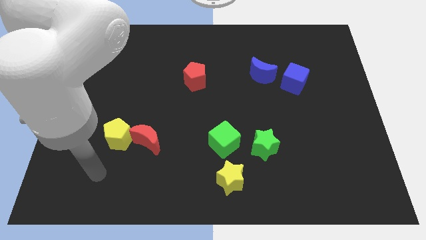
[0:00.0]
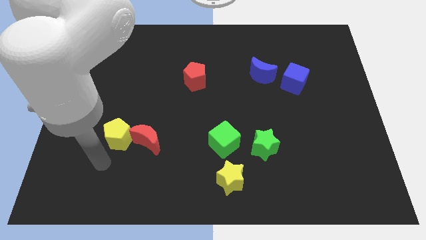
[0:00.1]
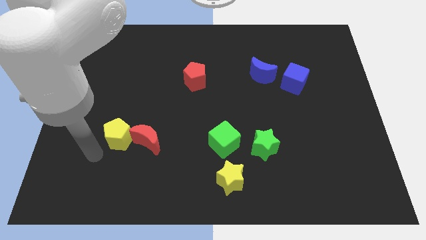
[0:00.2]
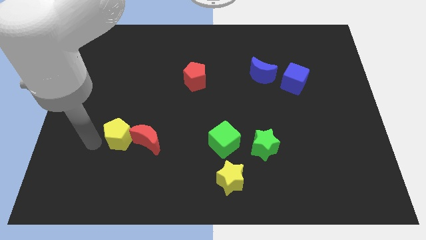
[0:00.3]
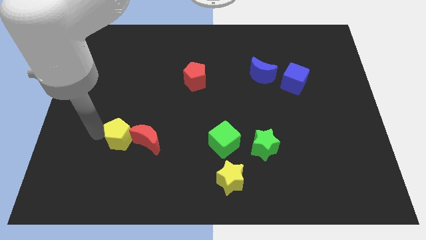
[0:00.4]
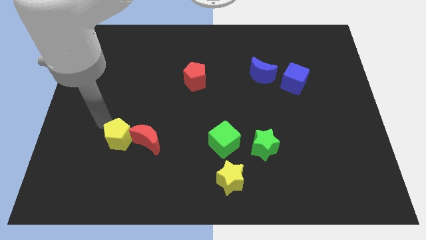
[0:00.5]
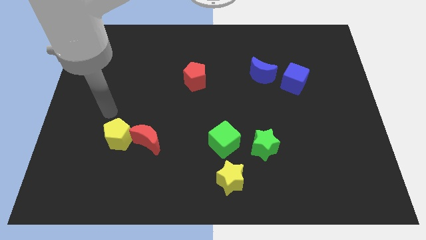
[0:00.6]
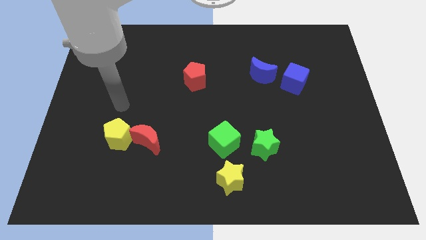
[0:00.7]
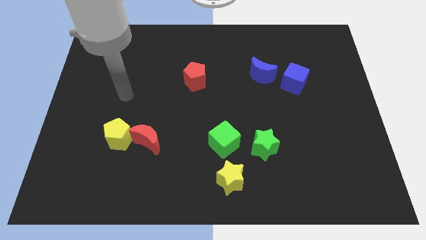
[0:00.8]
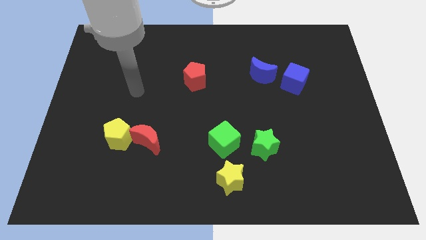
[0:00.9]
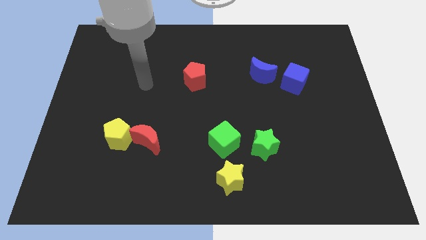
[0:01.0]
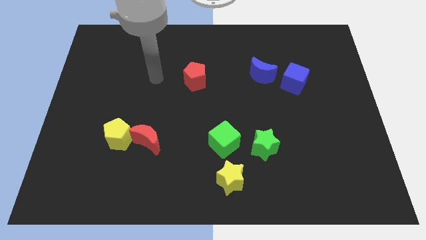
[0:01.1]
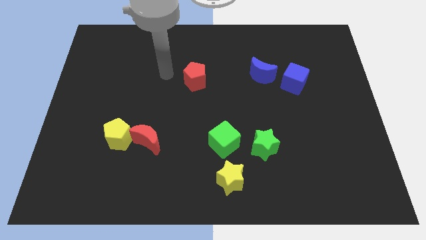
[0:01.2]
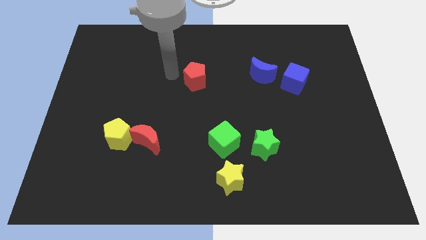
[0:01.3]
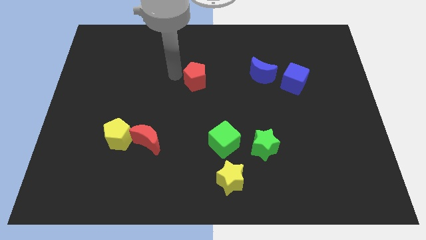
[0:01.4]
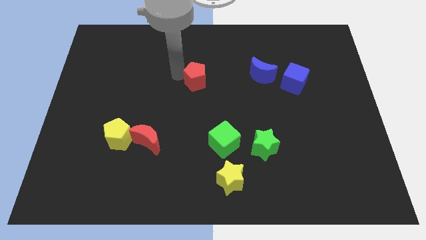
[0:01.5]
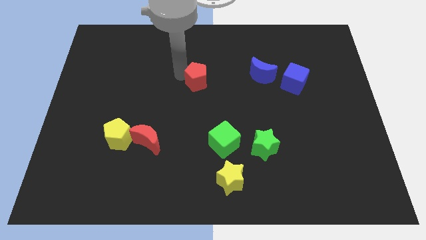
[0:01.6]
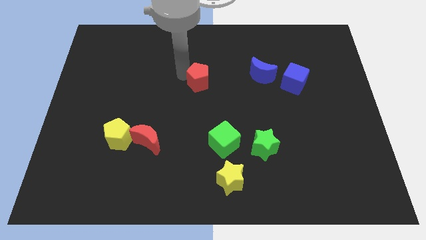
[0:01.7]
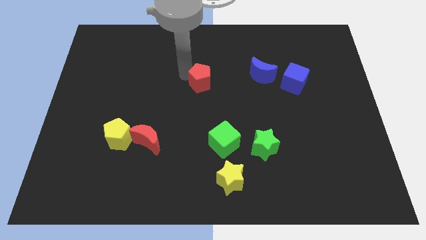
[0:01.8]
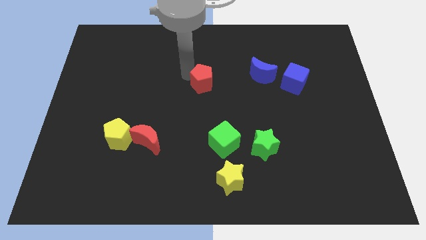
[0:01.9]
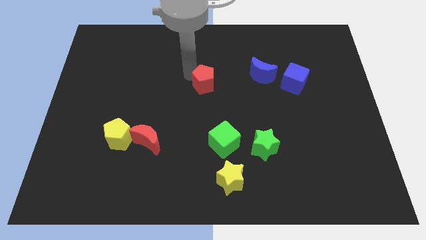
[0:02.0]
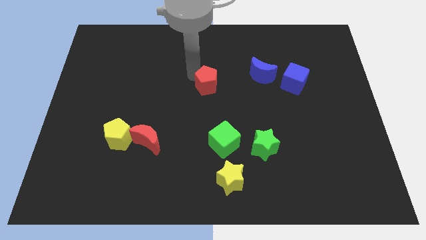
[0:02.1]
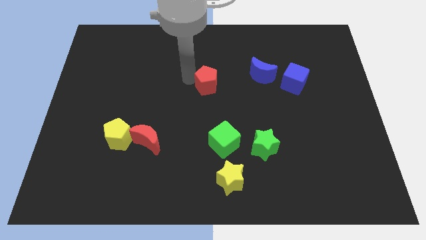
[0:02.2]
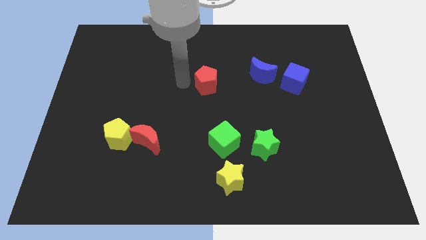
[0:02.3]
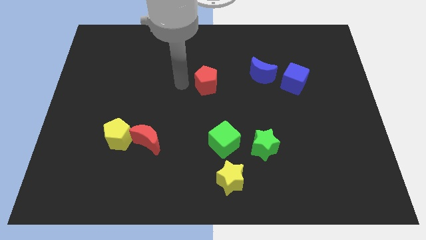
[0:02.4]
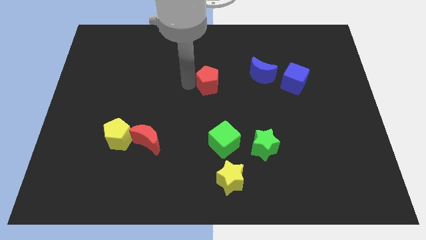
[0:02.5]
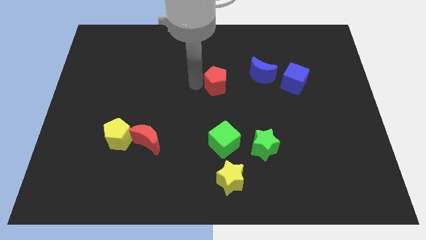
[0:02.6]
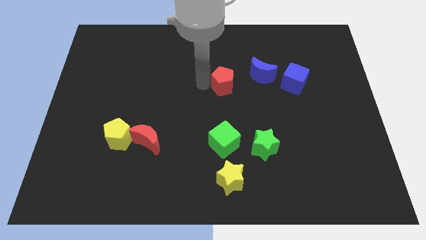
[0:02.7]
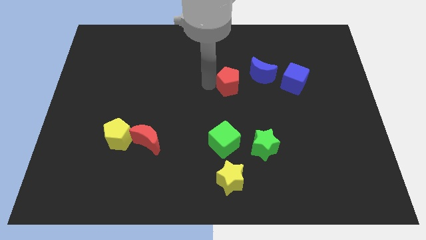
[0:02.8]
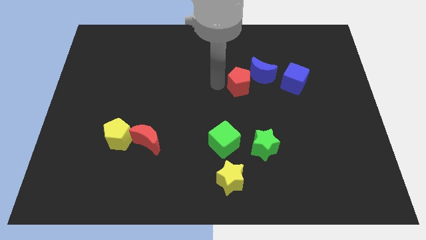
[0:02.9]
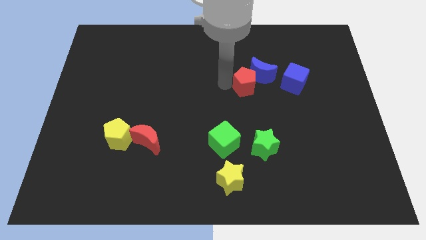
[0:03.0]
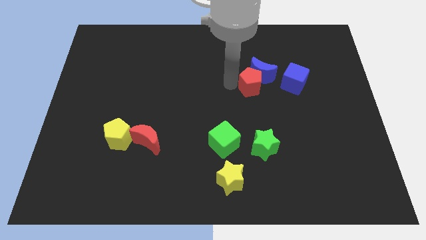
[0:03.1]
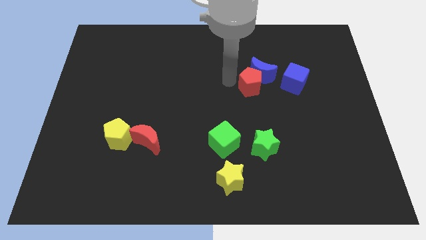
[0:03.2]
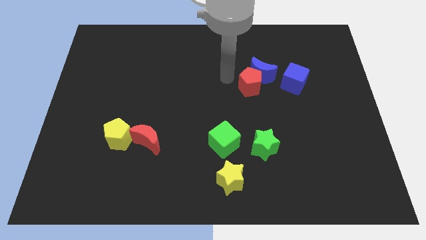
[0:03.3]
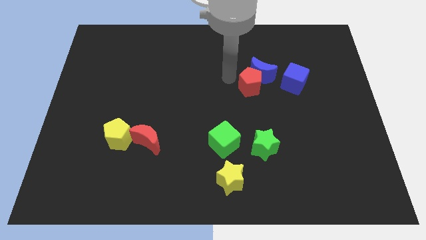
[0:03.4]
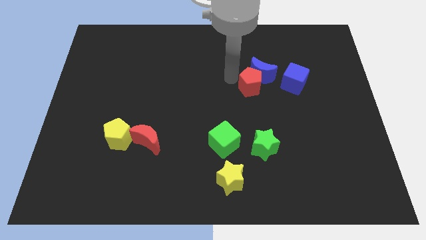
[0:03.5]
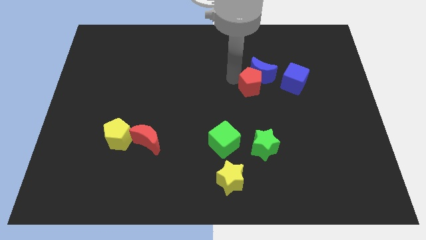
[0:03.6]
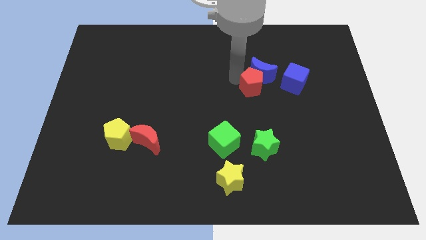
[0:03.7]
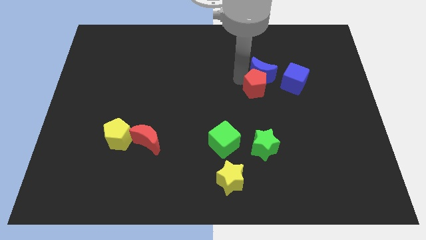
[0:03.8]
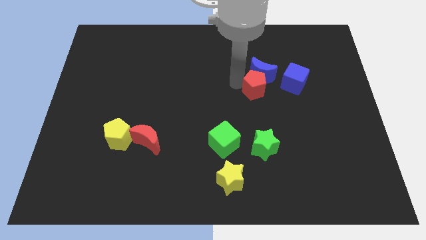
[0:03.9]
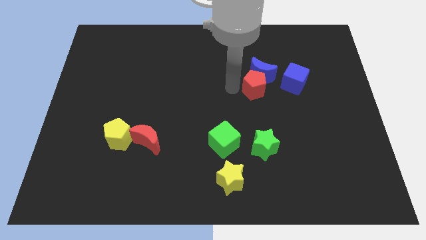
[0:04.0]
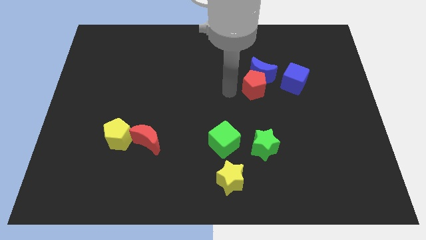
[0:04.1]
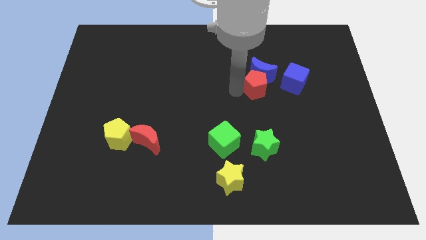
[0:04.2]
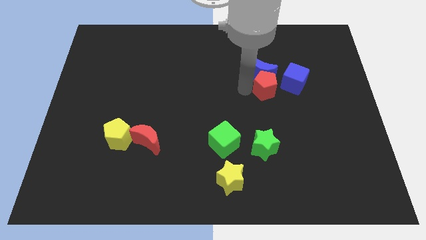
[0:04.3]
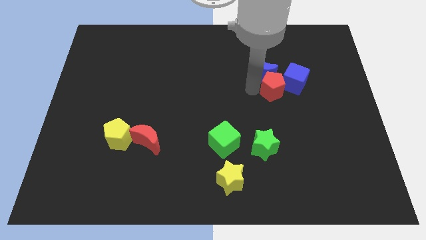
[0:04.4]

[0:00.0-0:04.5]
push the red pentagon to the blue cube

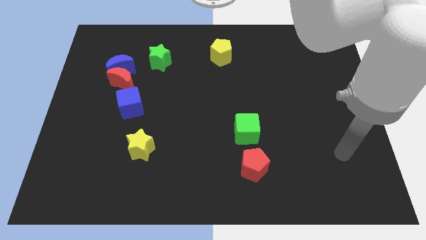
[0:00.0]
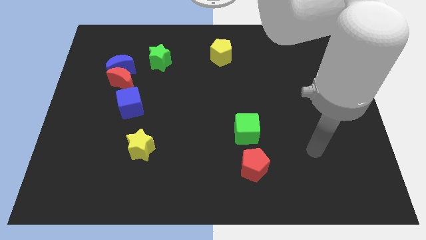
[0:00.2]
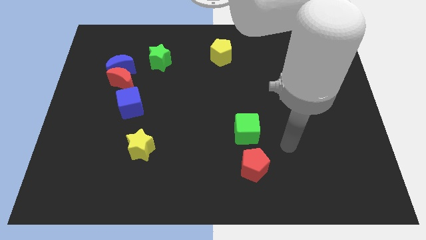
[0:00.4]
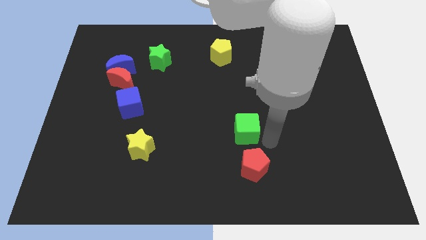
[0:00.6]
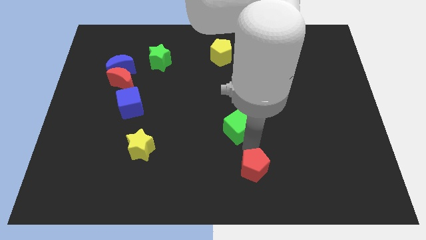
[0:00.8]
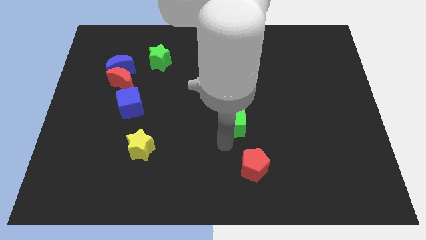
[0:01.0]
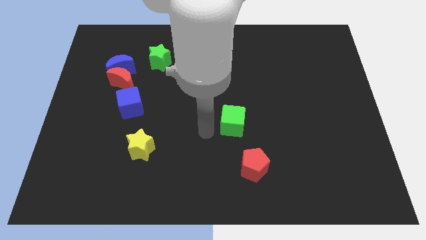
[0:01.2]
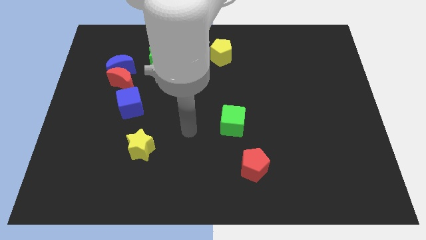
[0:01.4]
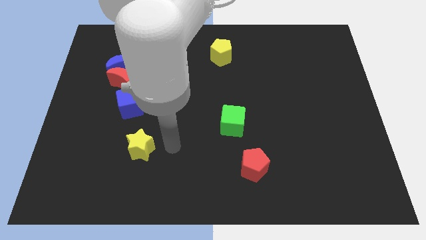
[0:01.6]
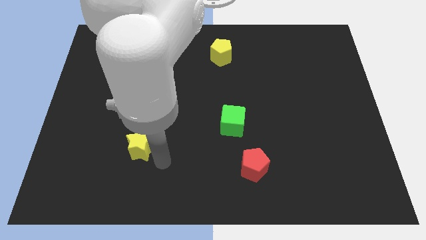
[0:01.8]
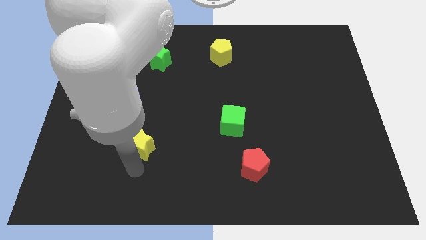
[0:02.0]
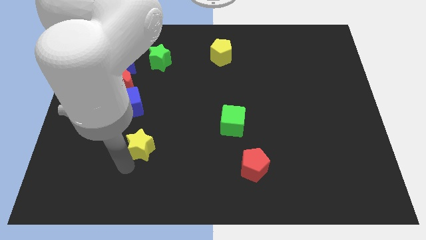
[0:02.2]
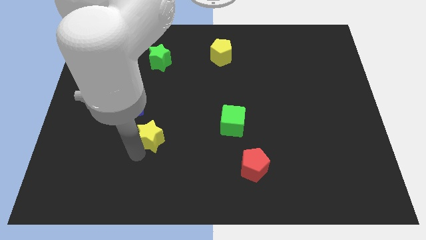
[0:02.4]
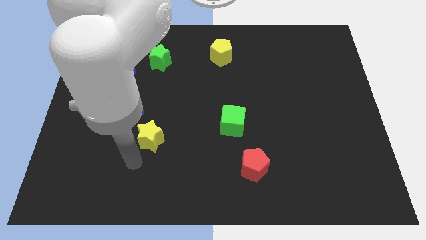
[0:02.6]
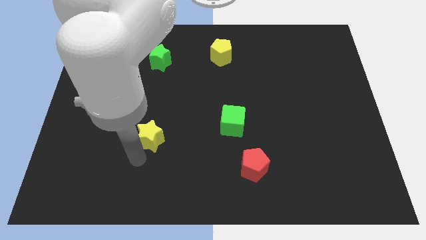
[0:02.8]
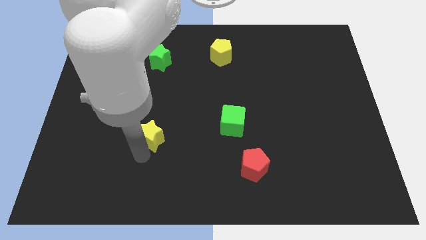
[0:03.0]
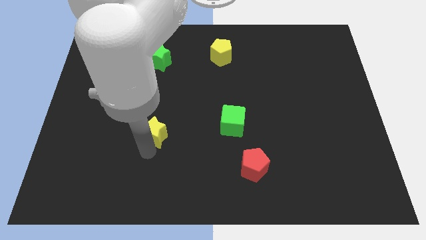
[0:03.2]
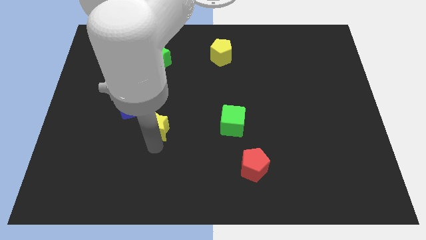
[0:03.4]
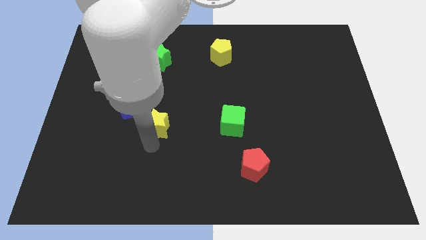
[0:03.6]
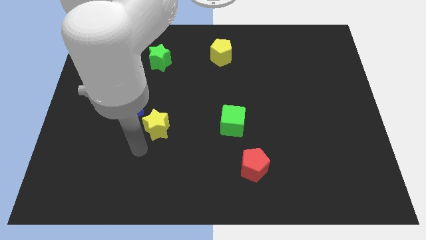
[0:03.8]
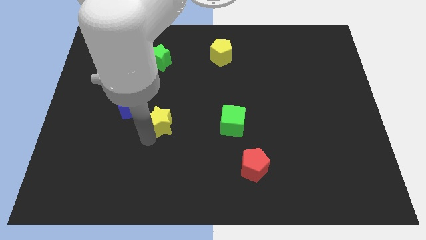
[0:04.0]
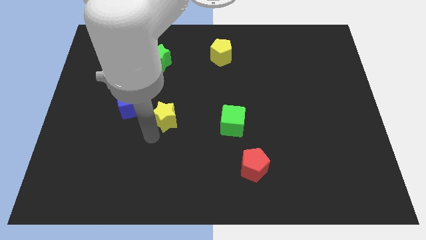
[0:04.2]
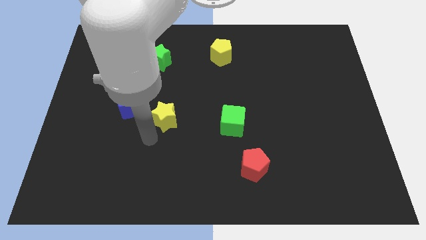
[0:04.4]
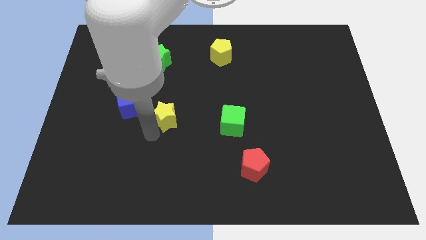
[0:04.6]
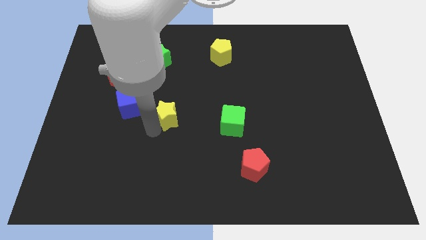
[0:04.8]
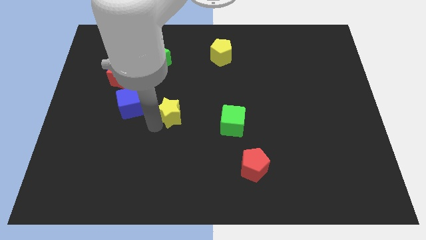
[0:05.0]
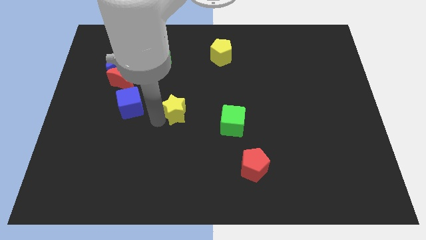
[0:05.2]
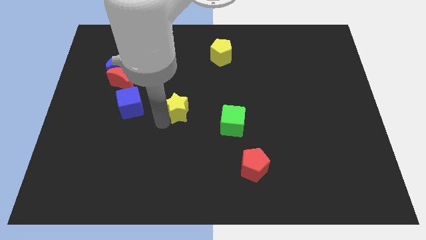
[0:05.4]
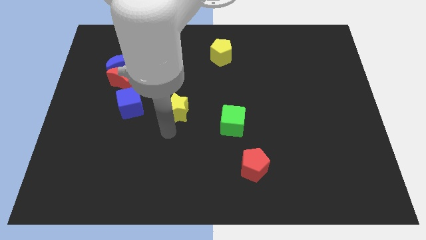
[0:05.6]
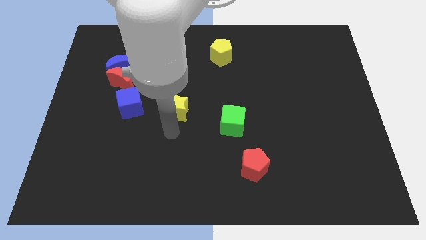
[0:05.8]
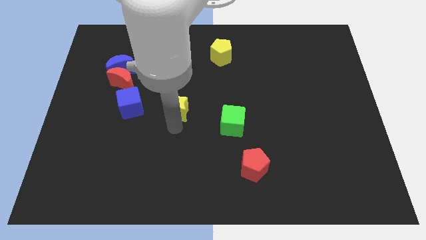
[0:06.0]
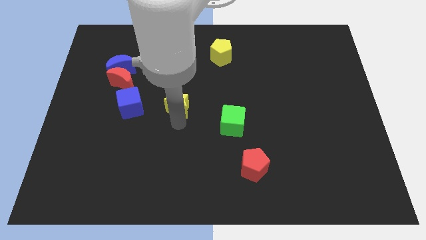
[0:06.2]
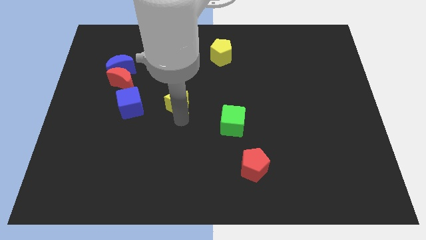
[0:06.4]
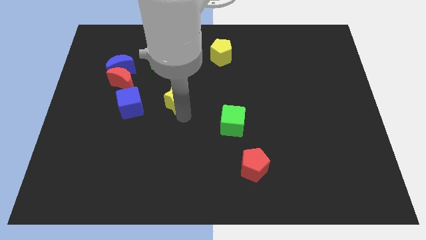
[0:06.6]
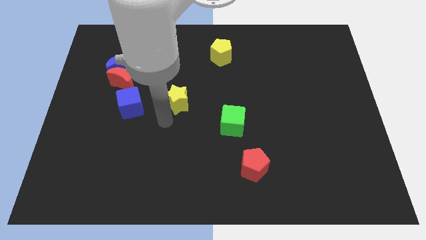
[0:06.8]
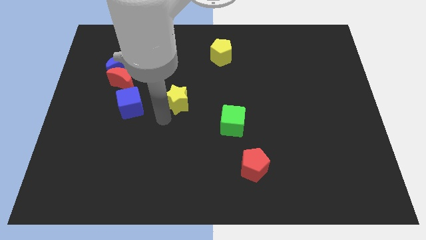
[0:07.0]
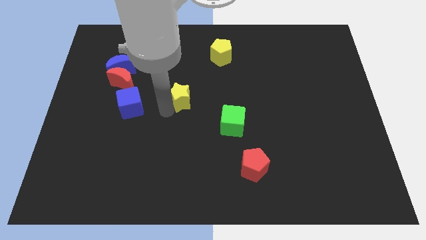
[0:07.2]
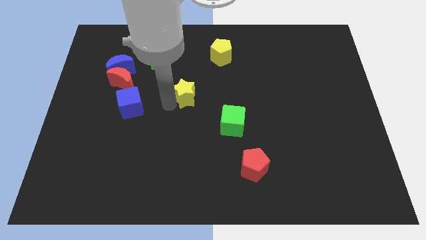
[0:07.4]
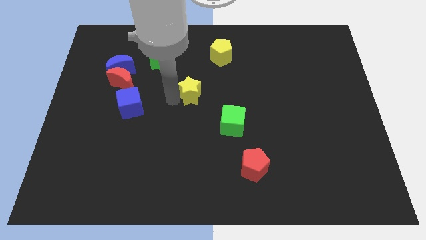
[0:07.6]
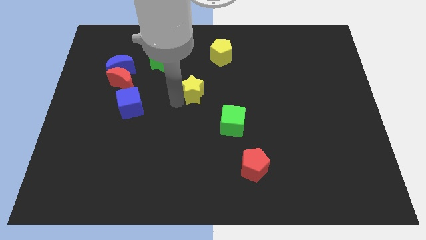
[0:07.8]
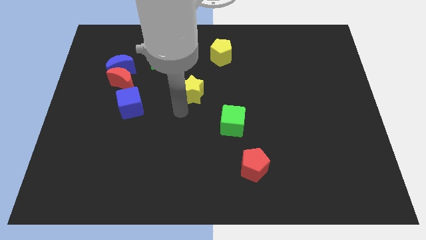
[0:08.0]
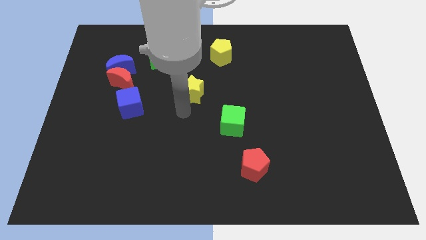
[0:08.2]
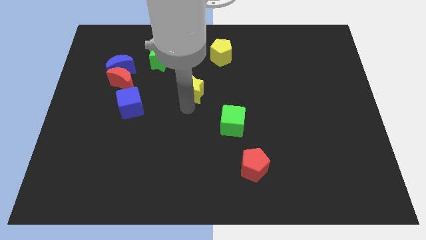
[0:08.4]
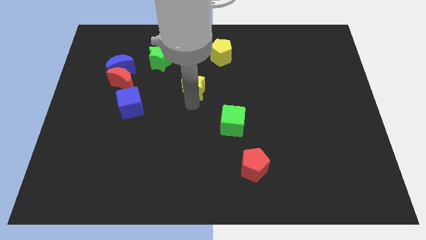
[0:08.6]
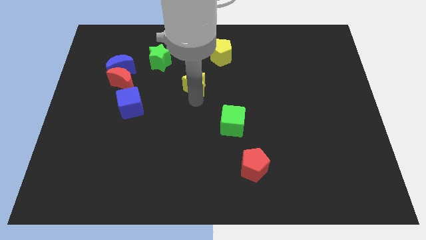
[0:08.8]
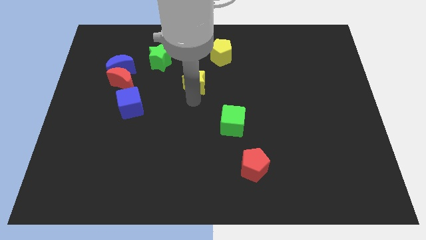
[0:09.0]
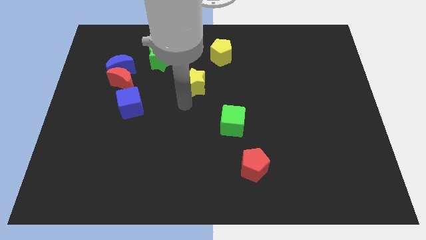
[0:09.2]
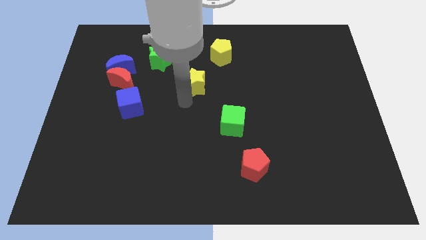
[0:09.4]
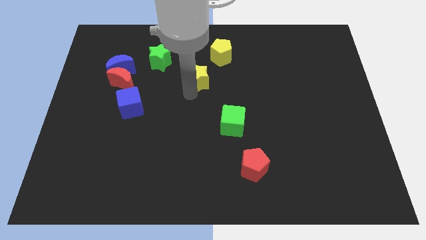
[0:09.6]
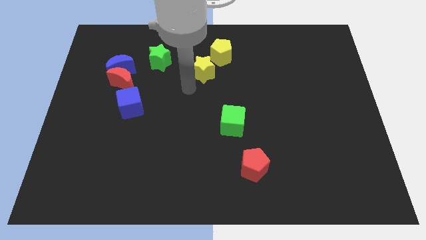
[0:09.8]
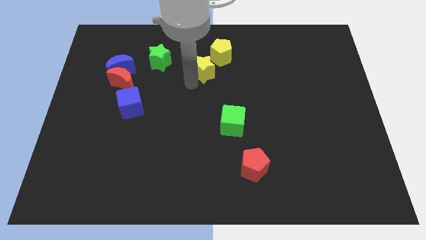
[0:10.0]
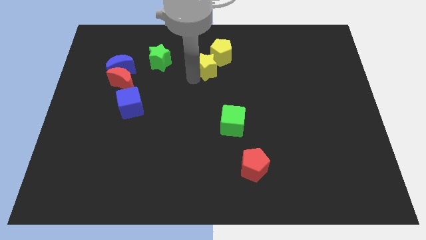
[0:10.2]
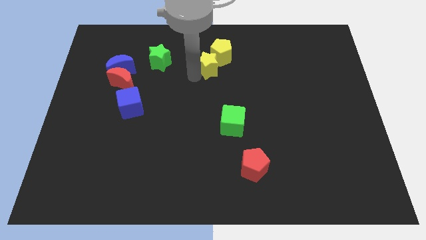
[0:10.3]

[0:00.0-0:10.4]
put the yellow star to the yellow pentagon
